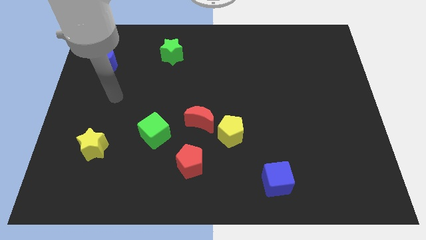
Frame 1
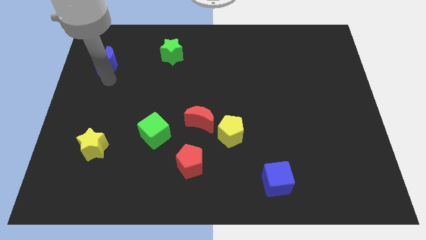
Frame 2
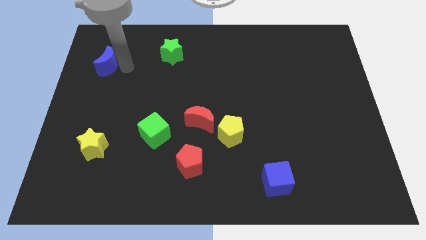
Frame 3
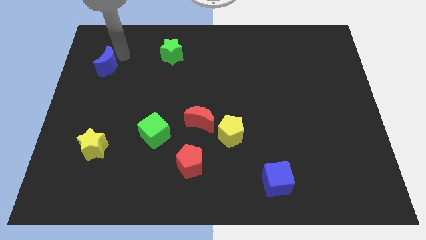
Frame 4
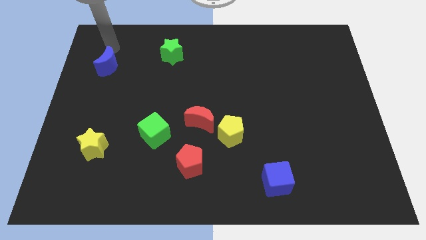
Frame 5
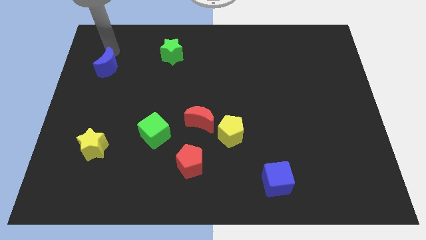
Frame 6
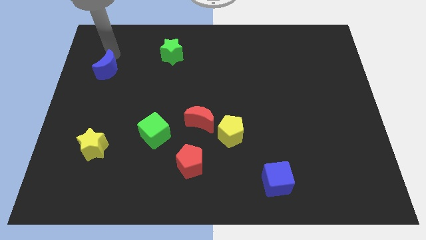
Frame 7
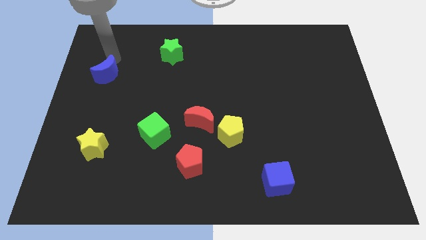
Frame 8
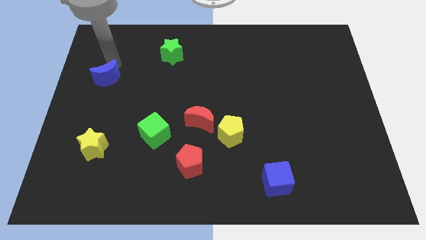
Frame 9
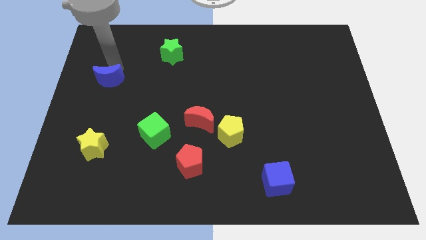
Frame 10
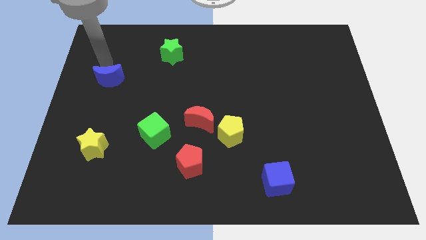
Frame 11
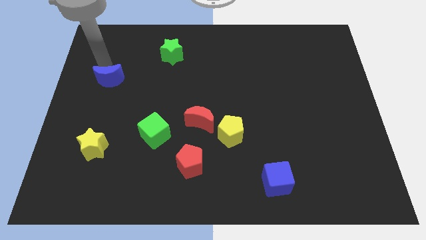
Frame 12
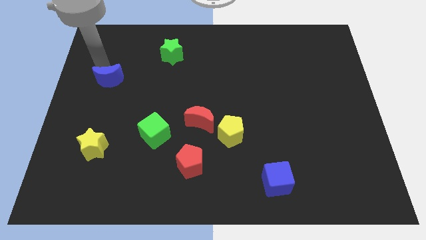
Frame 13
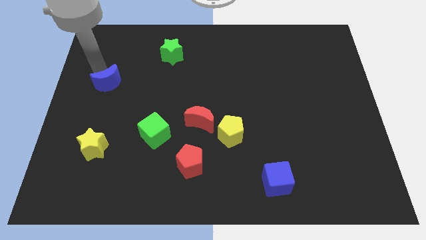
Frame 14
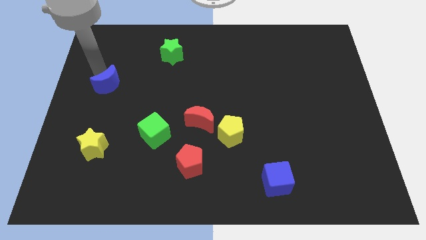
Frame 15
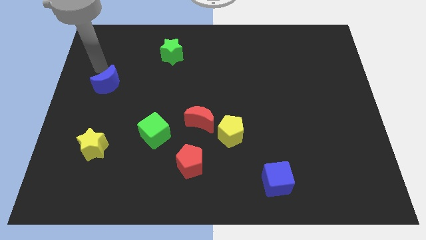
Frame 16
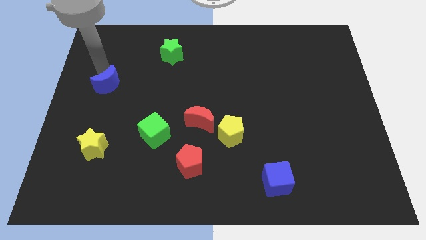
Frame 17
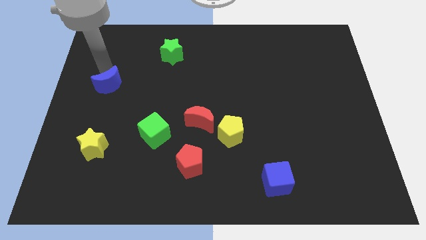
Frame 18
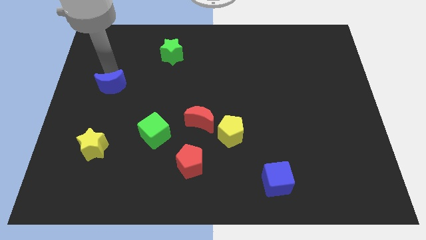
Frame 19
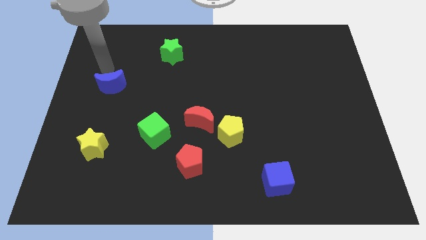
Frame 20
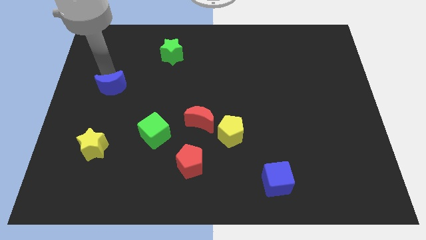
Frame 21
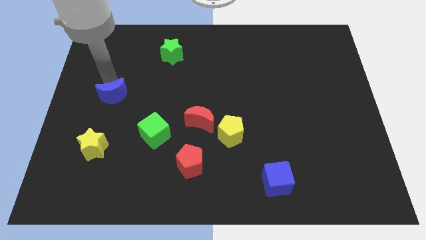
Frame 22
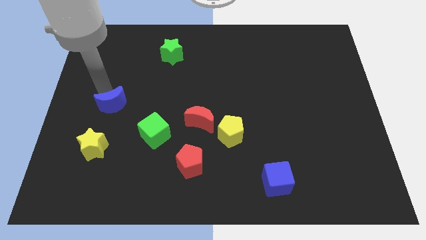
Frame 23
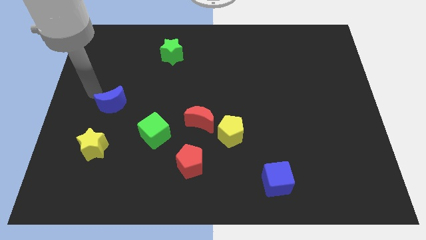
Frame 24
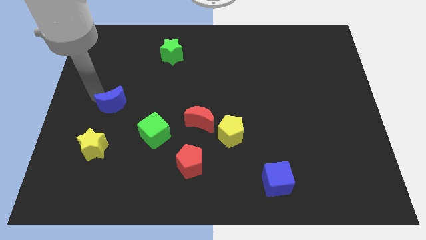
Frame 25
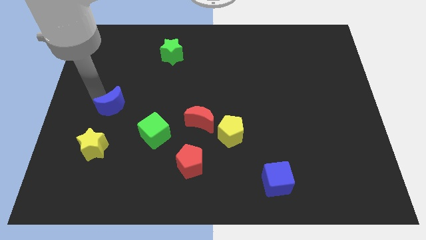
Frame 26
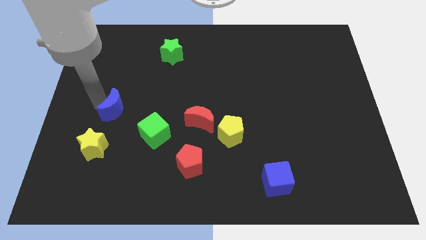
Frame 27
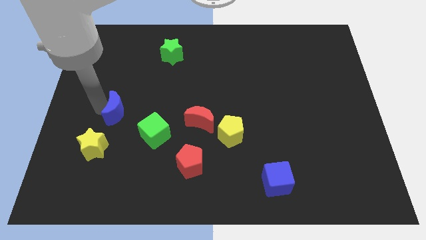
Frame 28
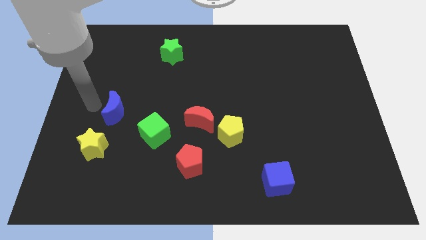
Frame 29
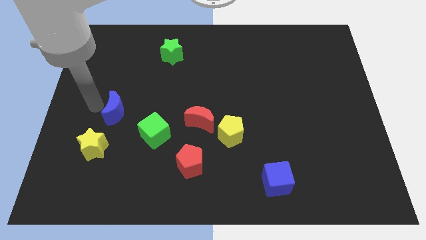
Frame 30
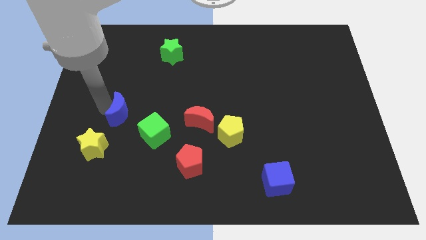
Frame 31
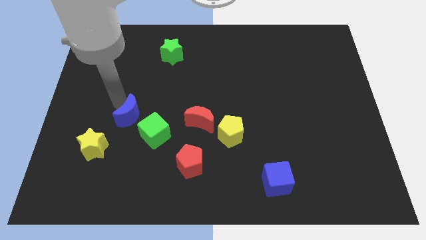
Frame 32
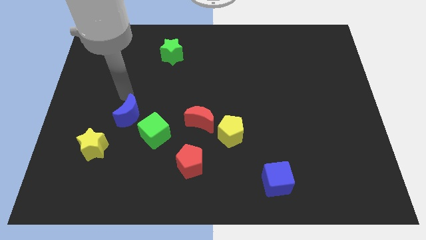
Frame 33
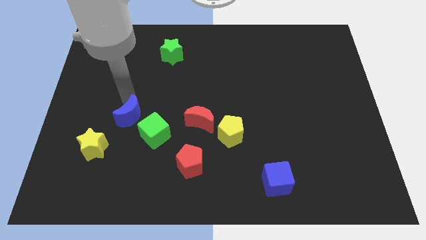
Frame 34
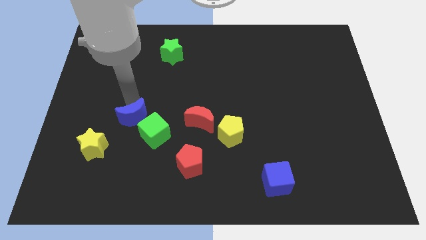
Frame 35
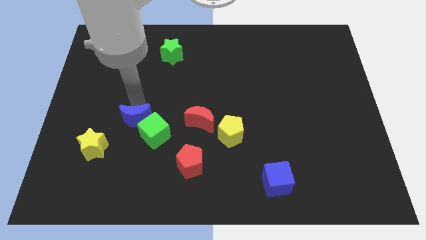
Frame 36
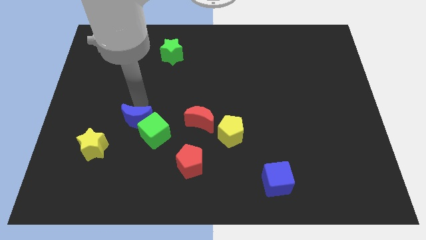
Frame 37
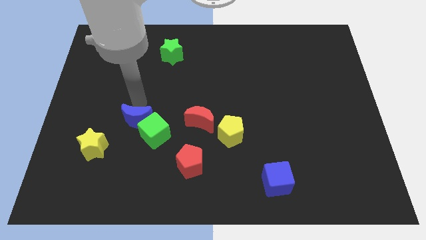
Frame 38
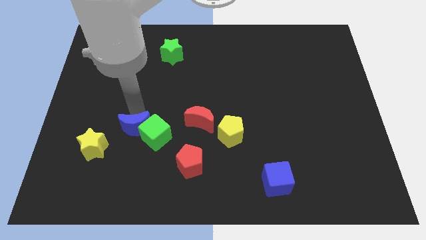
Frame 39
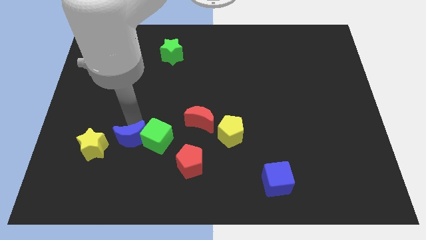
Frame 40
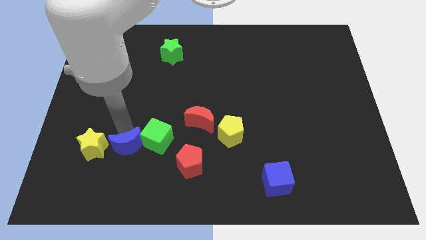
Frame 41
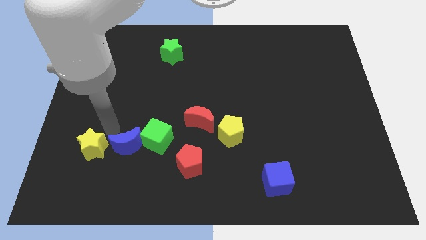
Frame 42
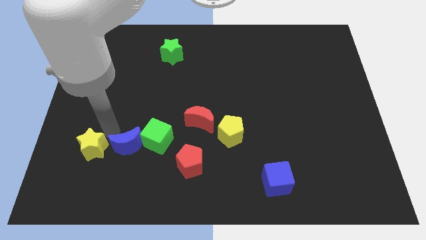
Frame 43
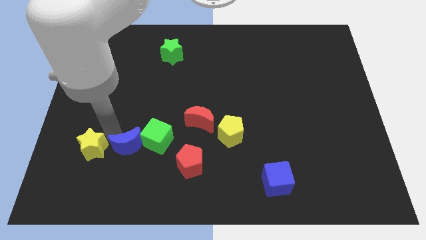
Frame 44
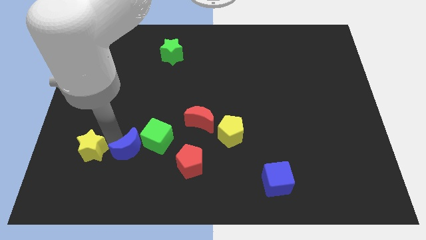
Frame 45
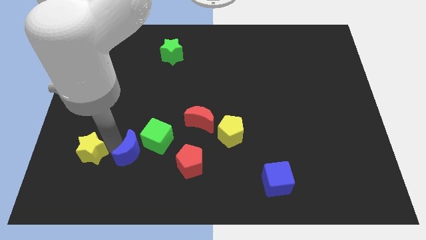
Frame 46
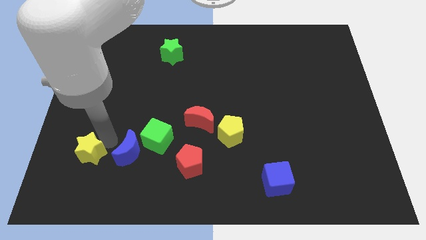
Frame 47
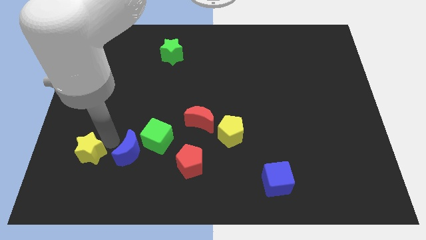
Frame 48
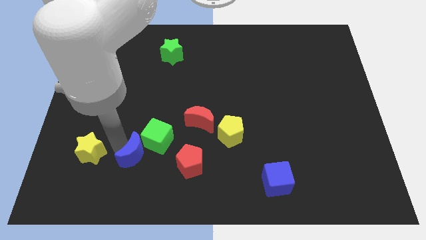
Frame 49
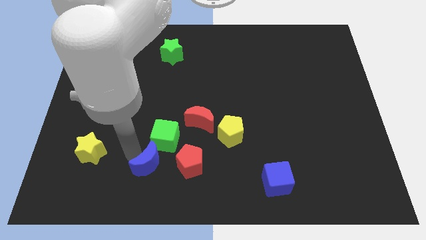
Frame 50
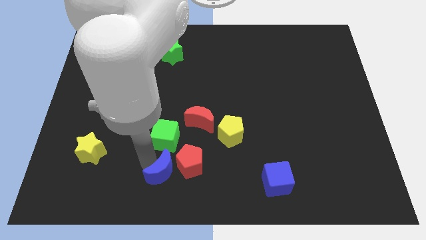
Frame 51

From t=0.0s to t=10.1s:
slide the blue moon to the bottom

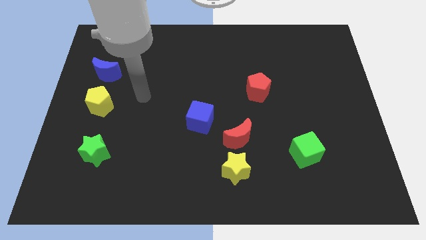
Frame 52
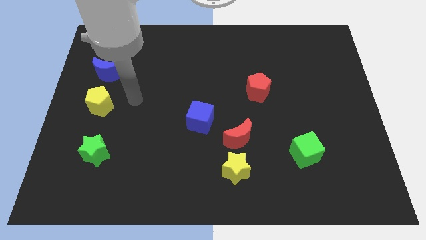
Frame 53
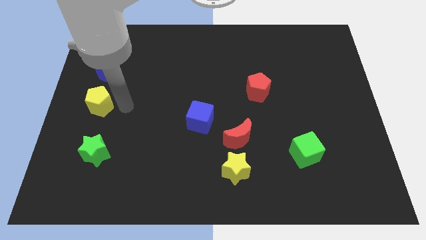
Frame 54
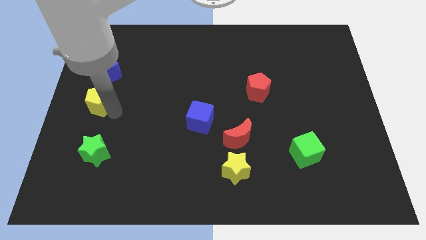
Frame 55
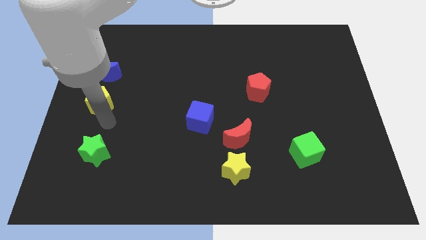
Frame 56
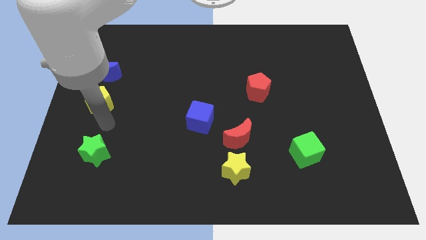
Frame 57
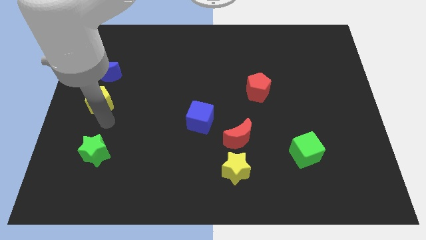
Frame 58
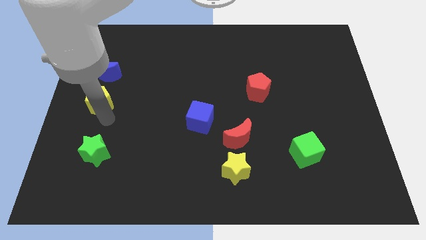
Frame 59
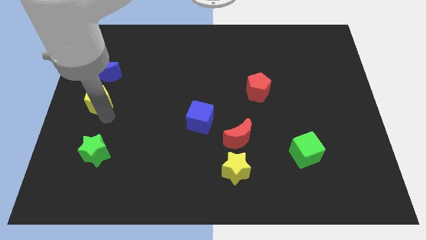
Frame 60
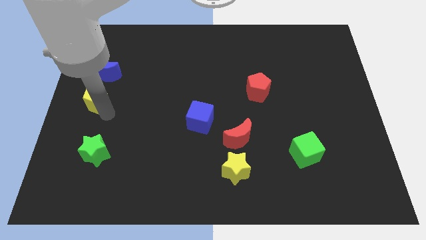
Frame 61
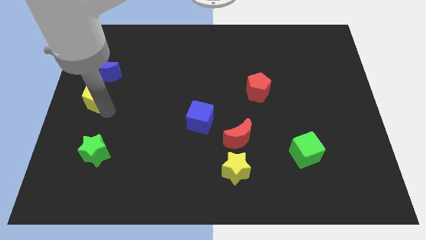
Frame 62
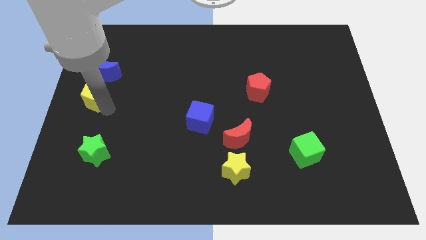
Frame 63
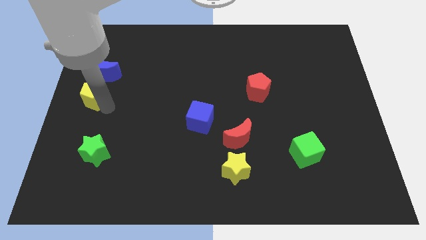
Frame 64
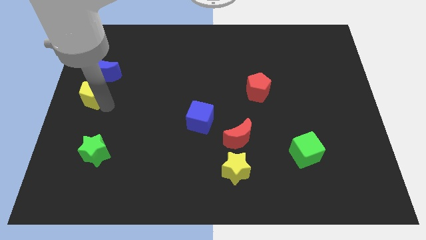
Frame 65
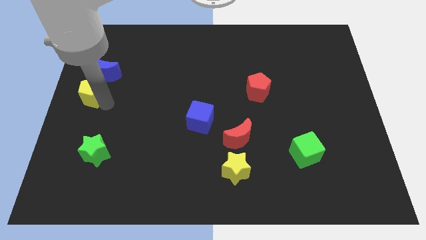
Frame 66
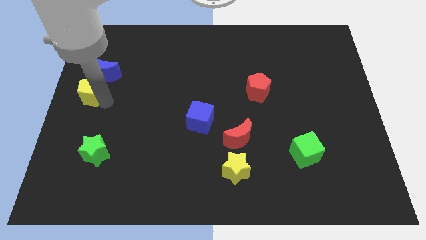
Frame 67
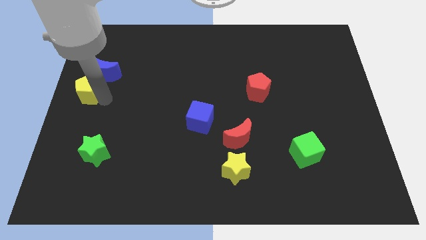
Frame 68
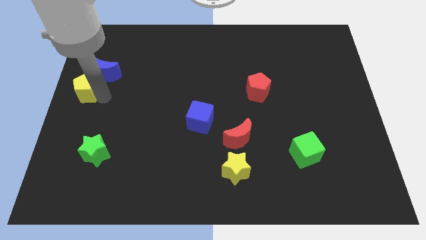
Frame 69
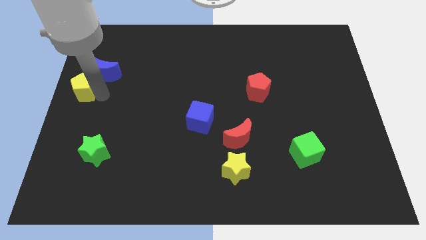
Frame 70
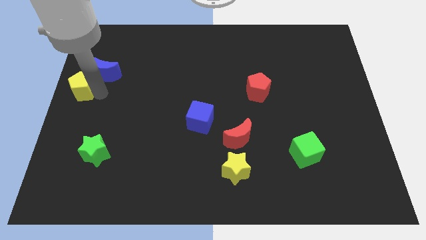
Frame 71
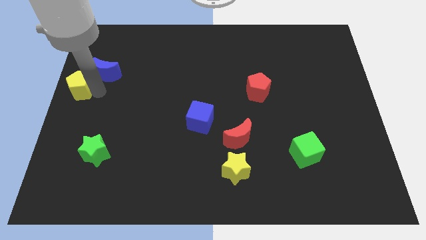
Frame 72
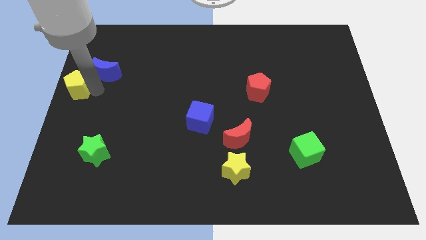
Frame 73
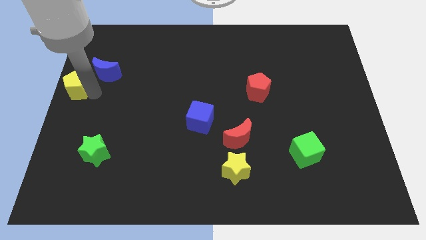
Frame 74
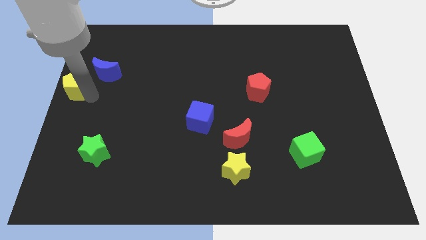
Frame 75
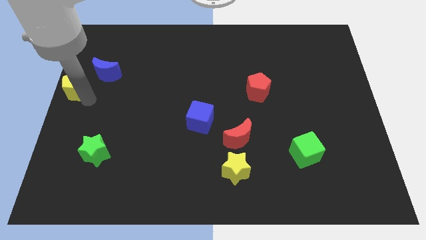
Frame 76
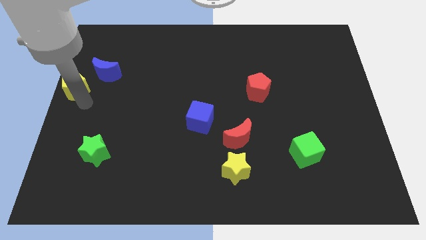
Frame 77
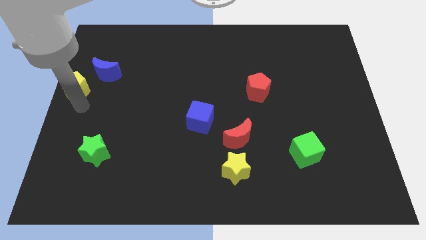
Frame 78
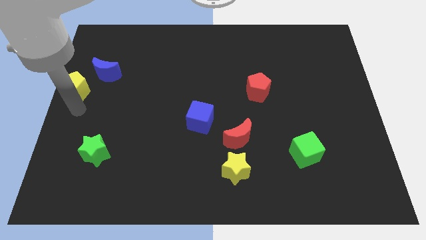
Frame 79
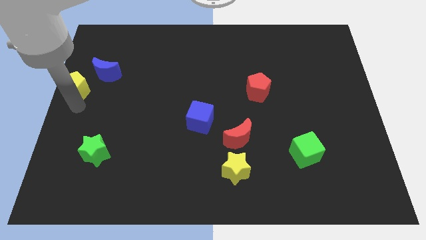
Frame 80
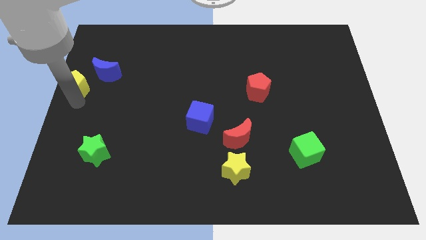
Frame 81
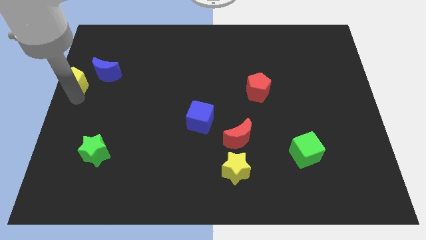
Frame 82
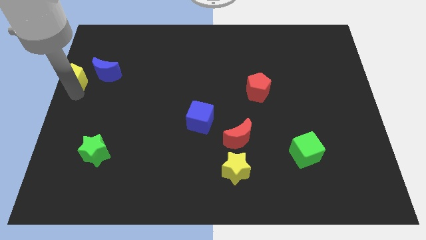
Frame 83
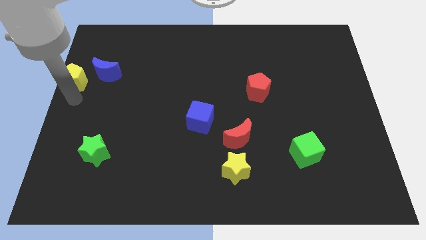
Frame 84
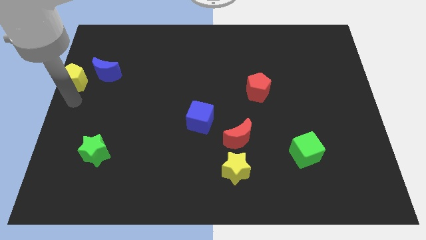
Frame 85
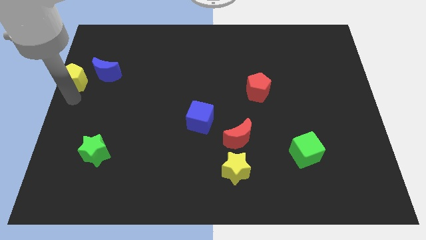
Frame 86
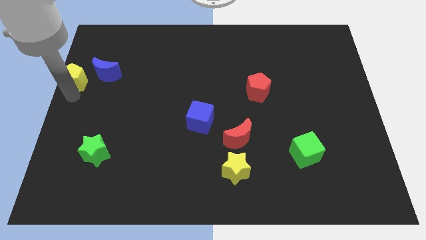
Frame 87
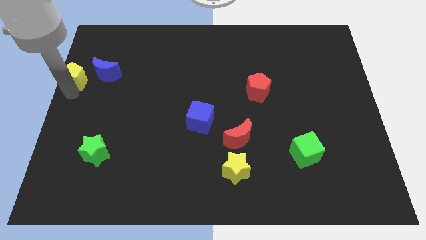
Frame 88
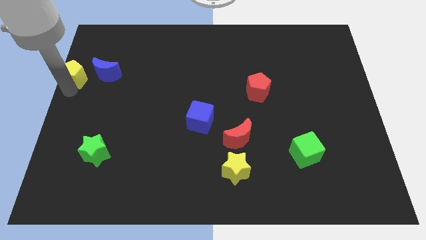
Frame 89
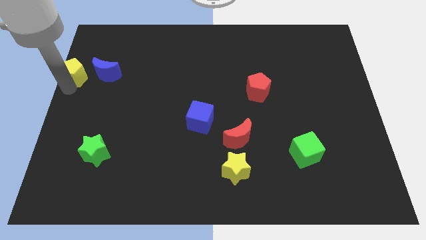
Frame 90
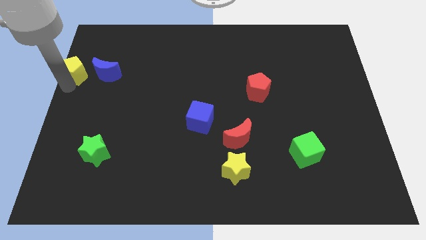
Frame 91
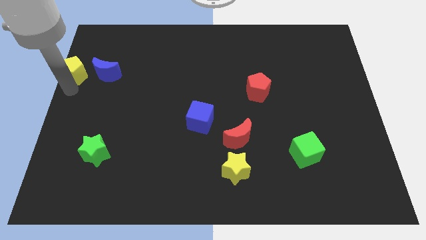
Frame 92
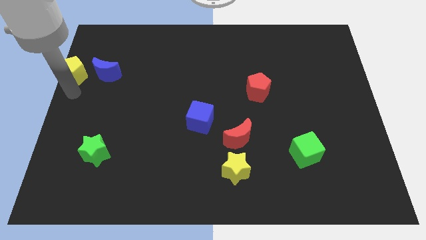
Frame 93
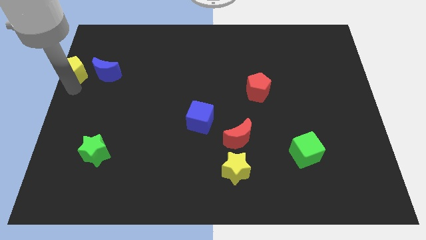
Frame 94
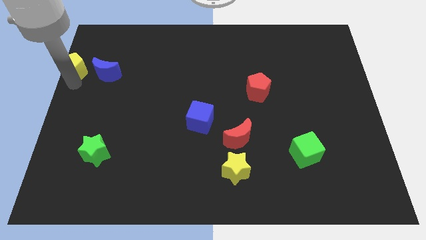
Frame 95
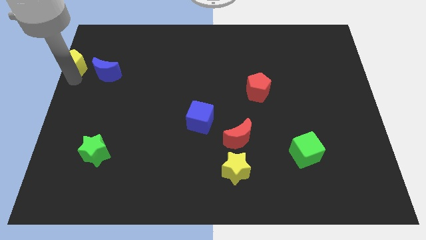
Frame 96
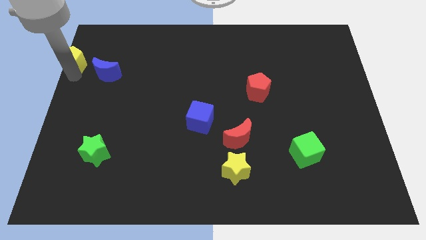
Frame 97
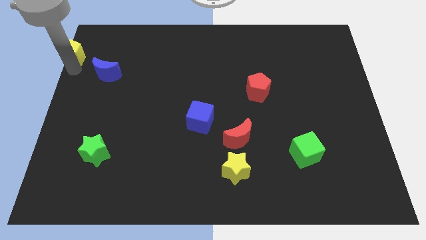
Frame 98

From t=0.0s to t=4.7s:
move the yellow pentagon to the top left of the board
